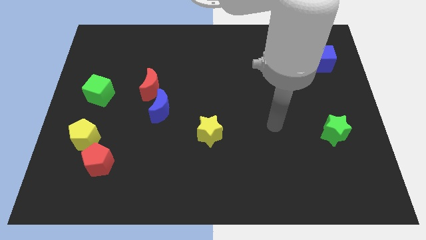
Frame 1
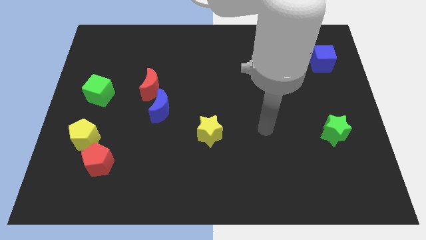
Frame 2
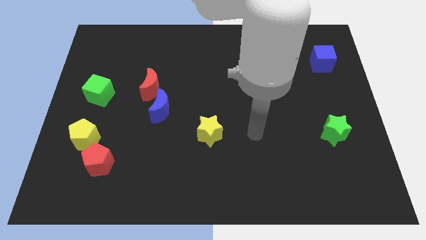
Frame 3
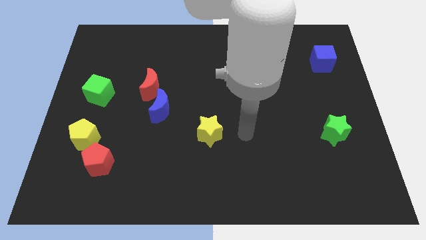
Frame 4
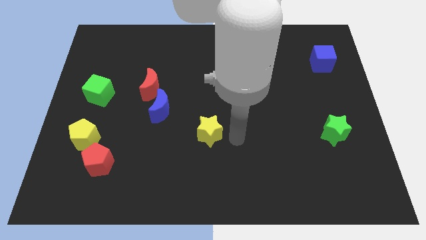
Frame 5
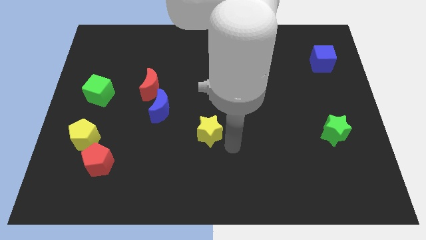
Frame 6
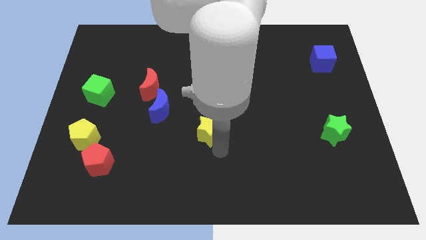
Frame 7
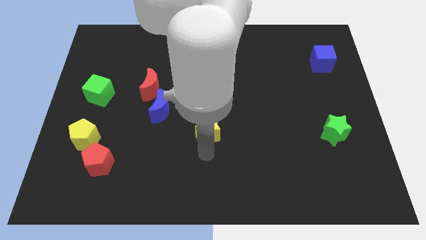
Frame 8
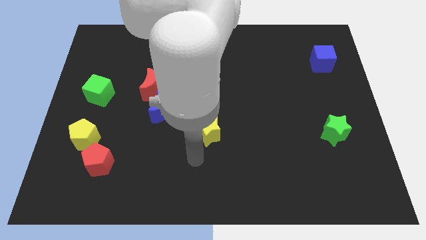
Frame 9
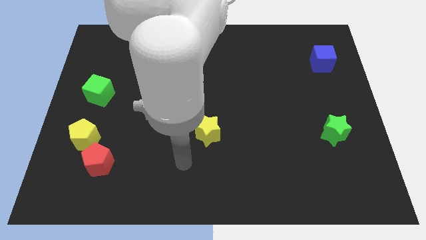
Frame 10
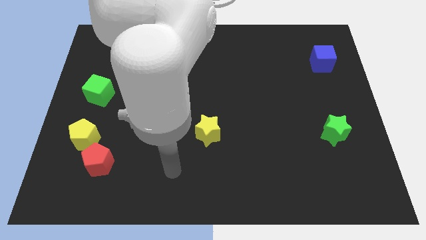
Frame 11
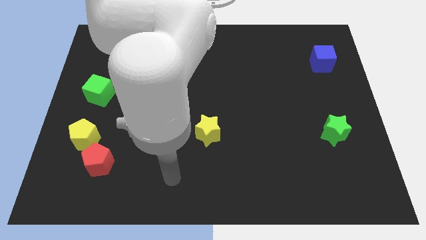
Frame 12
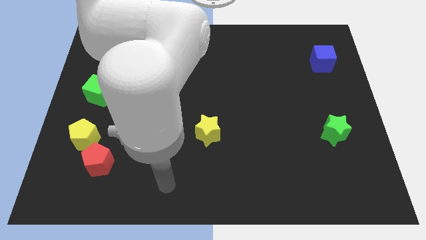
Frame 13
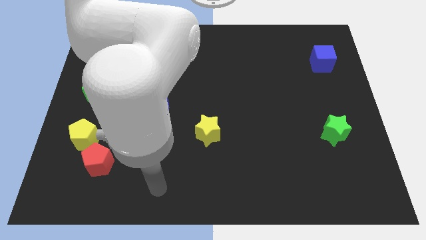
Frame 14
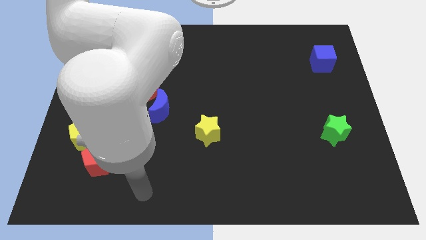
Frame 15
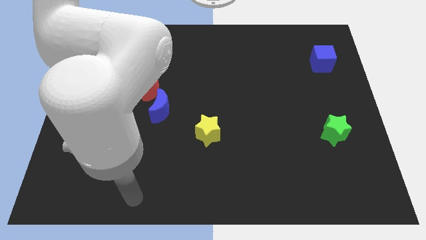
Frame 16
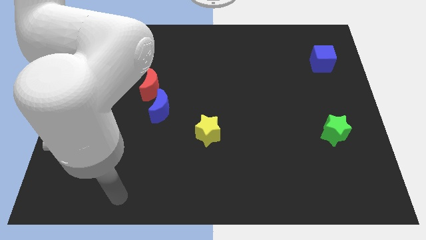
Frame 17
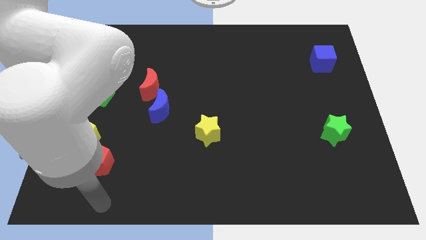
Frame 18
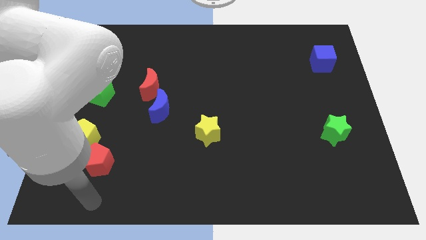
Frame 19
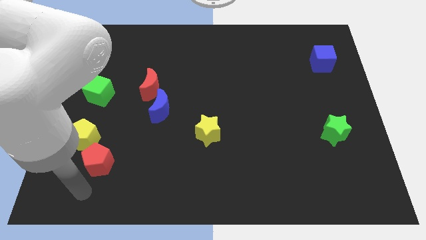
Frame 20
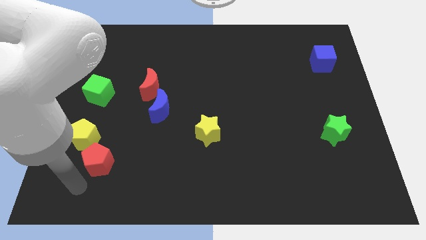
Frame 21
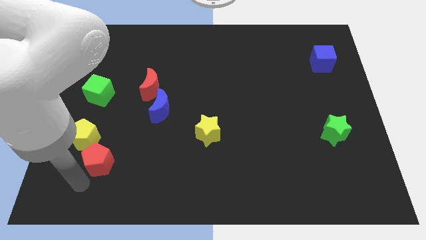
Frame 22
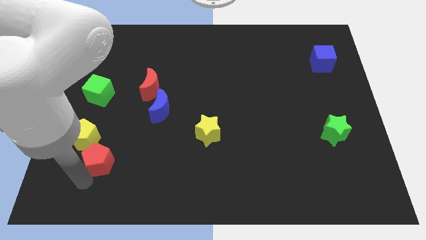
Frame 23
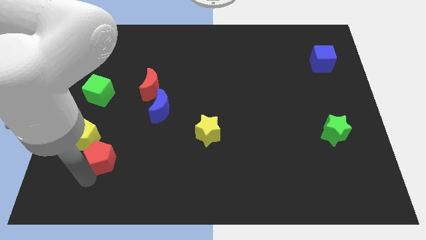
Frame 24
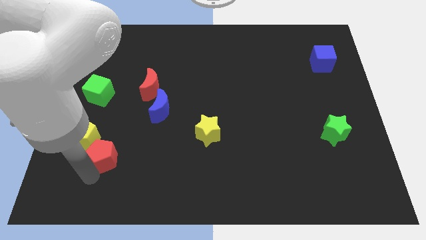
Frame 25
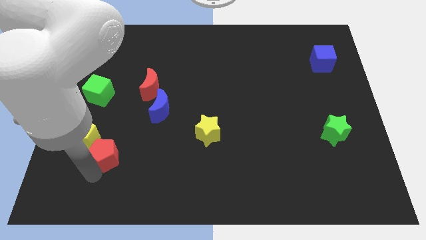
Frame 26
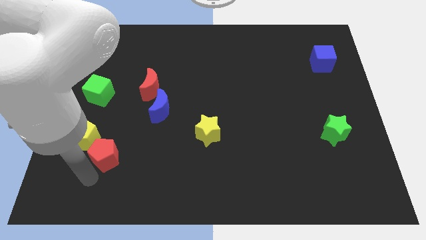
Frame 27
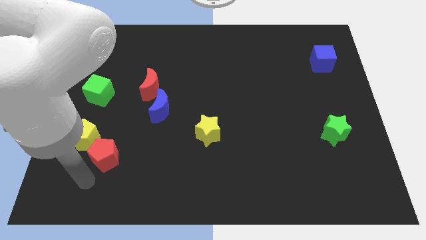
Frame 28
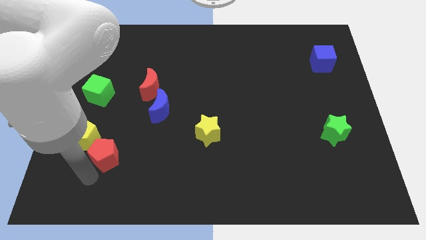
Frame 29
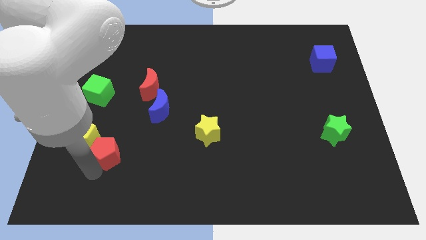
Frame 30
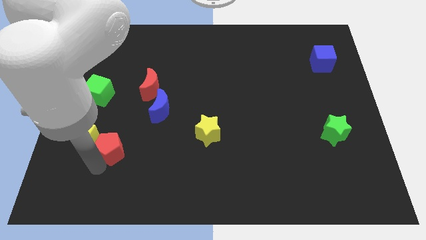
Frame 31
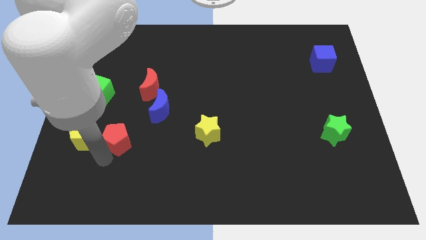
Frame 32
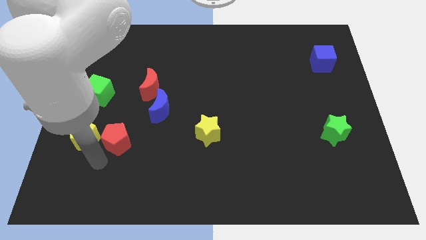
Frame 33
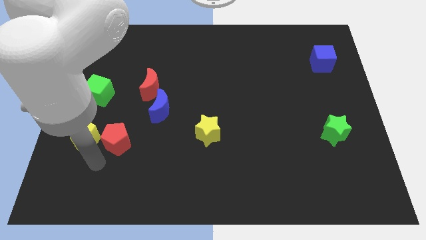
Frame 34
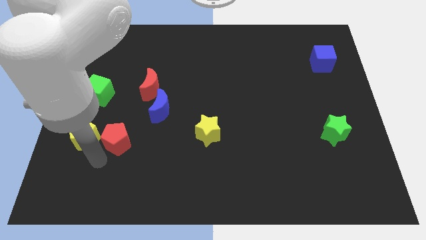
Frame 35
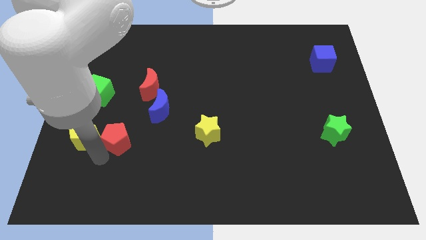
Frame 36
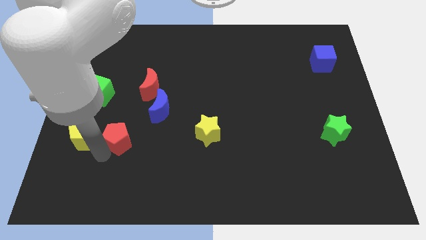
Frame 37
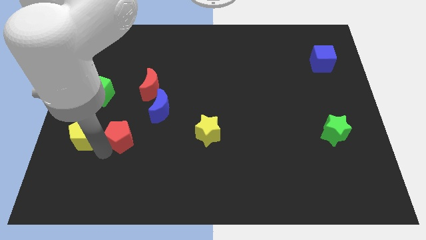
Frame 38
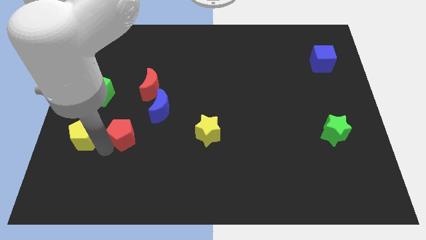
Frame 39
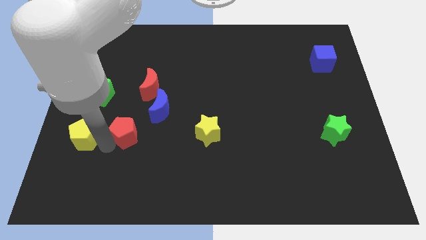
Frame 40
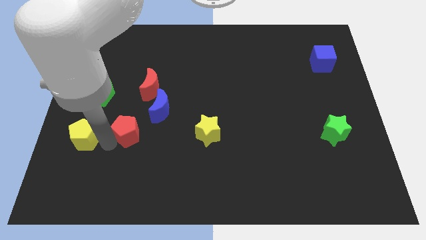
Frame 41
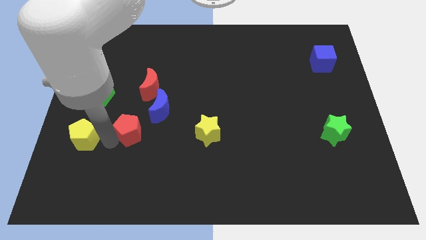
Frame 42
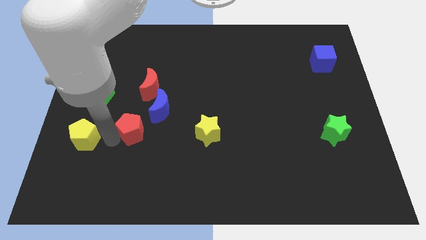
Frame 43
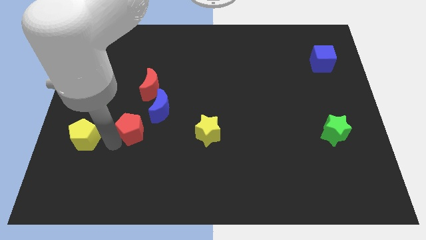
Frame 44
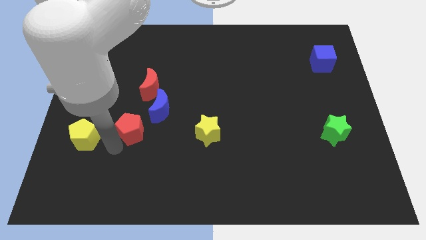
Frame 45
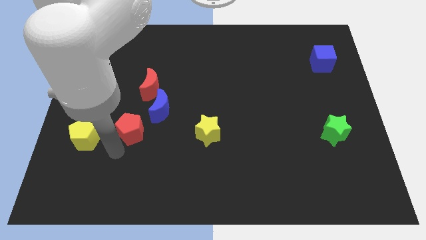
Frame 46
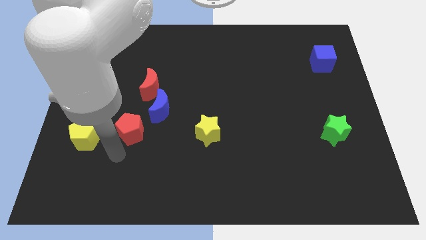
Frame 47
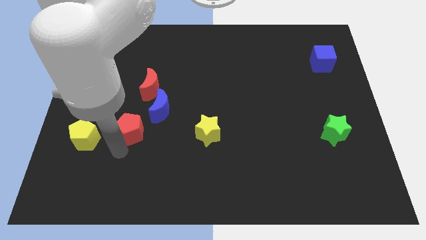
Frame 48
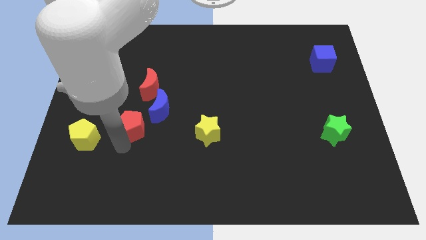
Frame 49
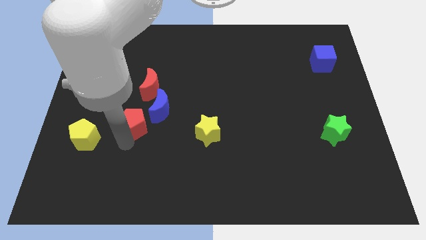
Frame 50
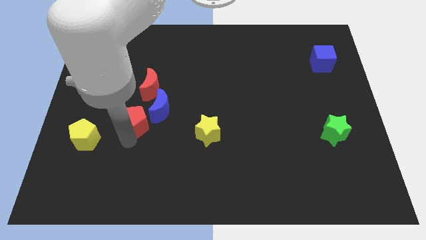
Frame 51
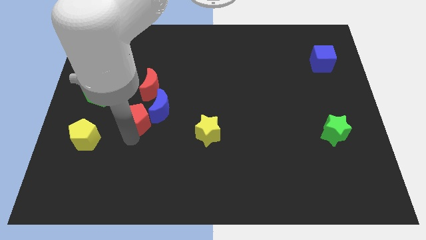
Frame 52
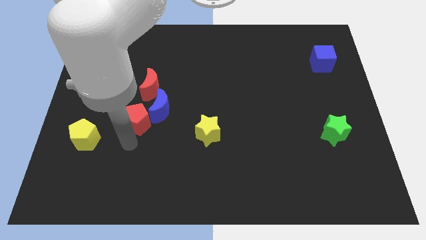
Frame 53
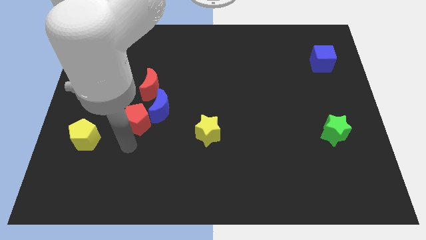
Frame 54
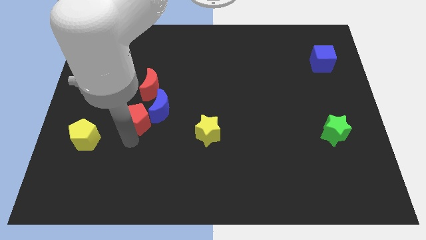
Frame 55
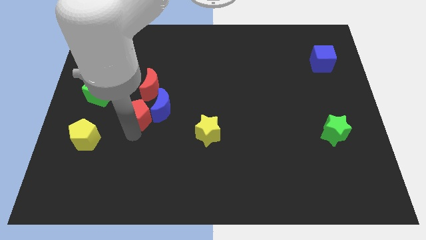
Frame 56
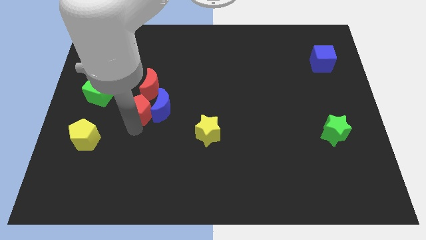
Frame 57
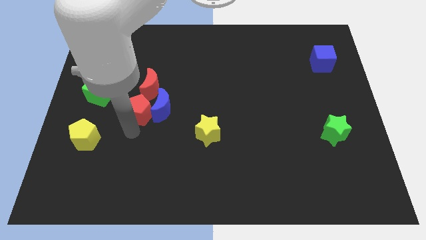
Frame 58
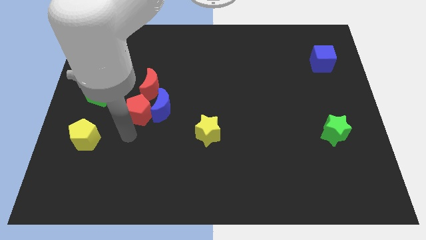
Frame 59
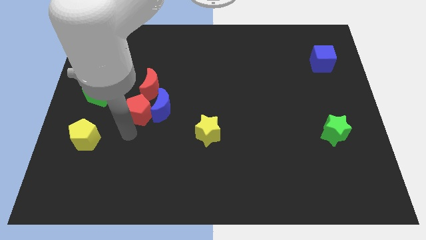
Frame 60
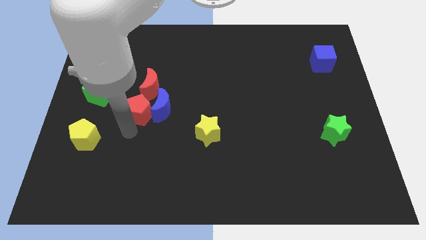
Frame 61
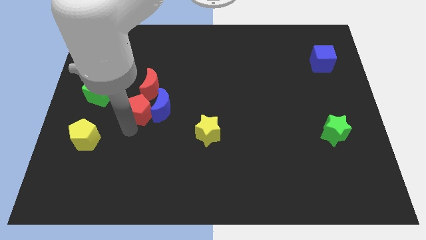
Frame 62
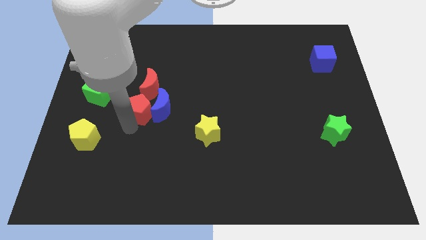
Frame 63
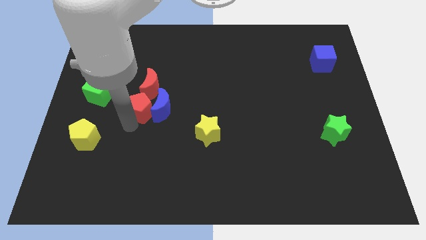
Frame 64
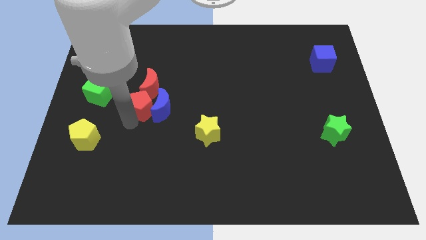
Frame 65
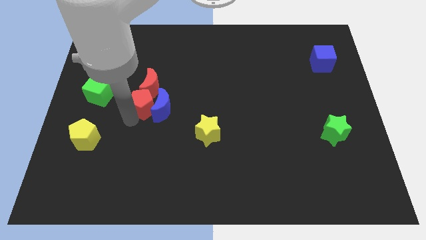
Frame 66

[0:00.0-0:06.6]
put the red pentagon to the red moon

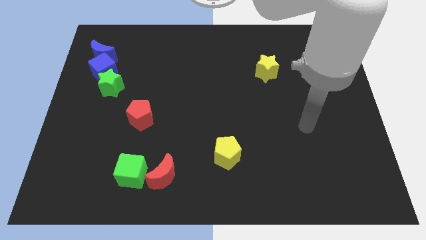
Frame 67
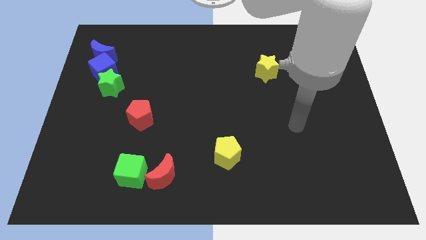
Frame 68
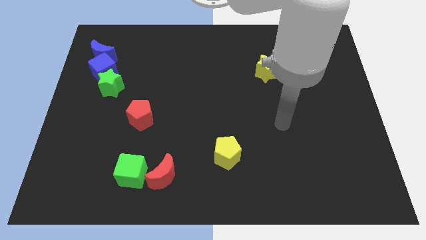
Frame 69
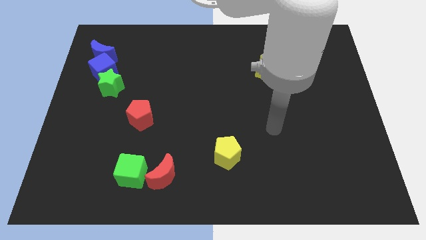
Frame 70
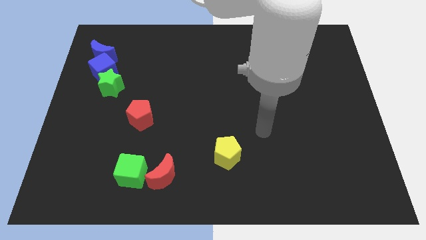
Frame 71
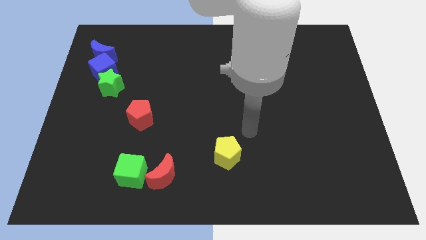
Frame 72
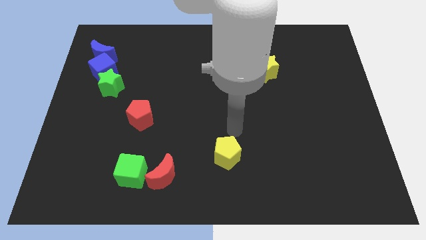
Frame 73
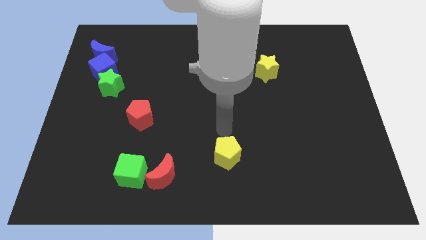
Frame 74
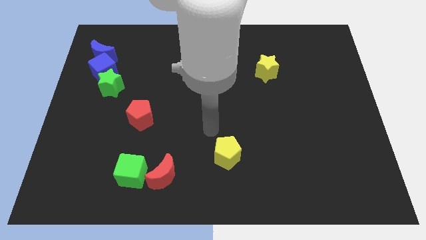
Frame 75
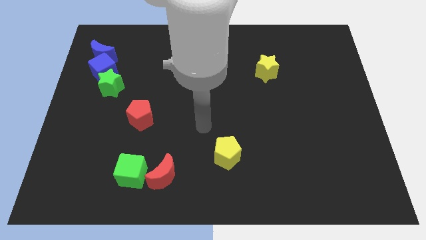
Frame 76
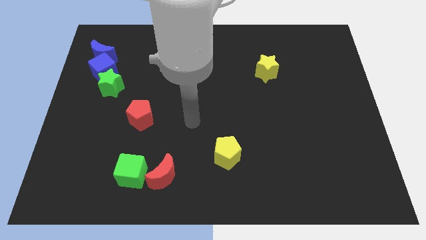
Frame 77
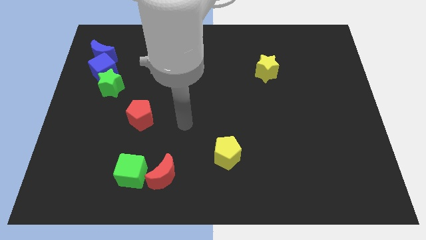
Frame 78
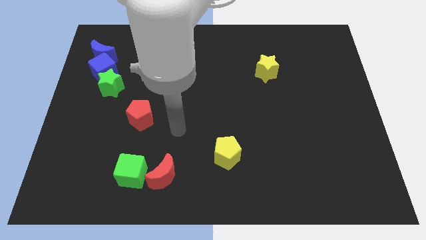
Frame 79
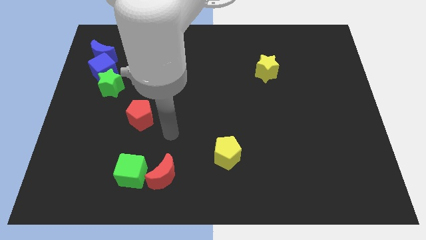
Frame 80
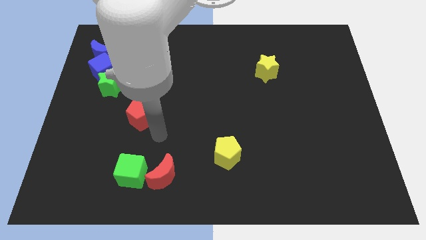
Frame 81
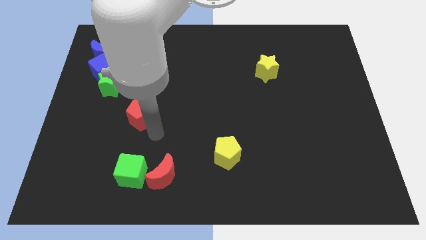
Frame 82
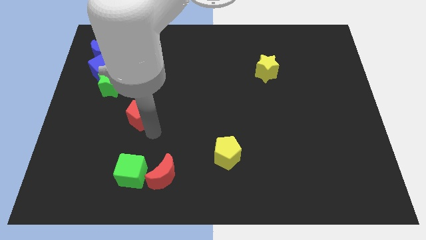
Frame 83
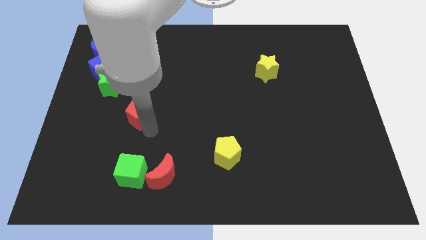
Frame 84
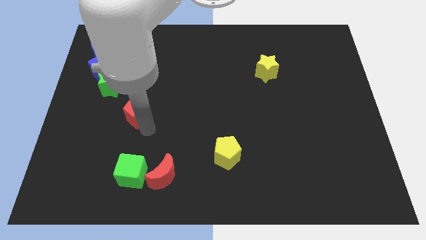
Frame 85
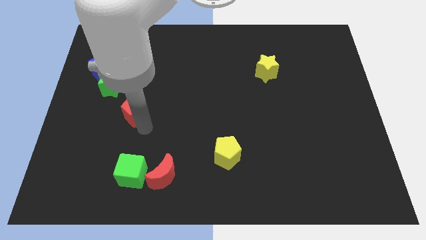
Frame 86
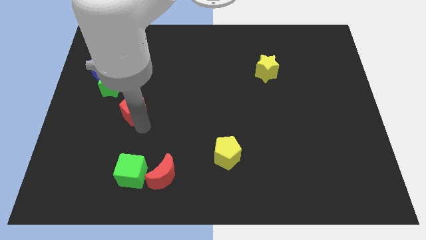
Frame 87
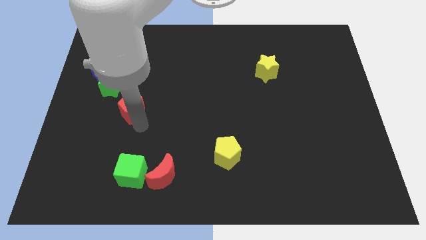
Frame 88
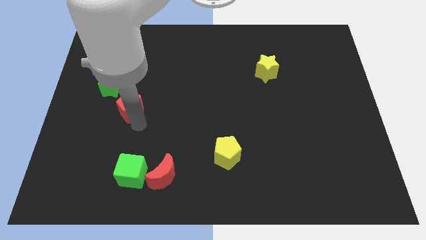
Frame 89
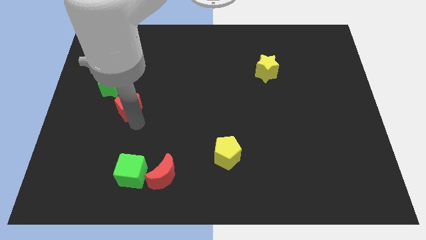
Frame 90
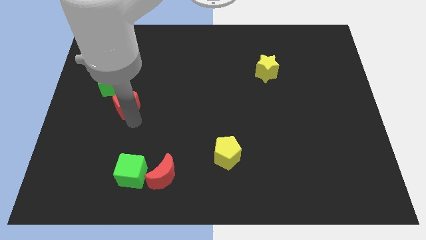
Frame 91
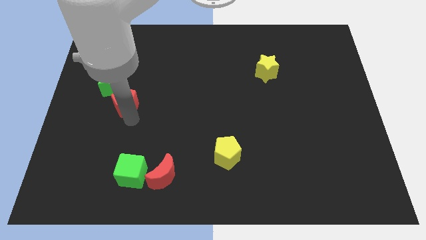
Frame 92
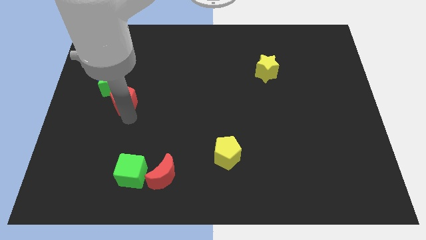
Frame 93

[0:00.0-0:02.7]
push the red pentagon towards the green star
